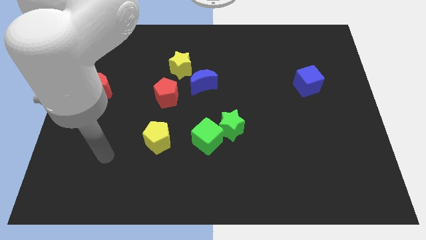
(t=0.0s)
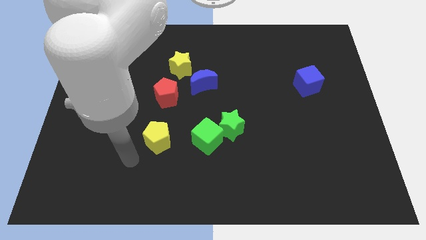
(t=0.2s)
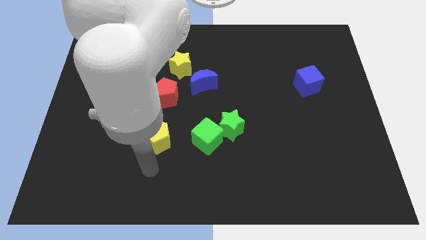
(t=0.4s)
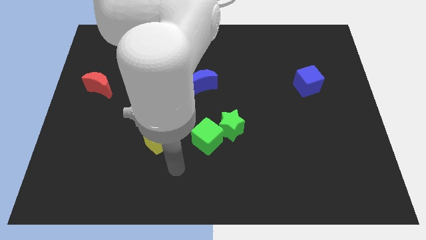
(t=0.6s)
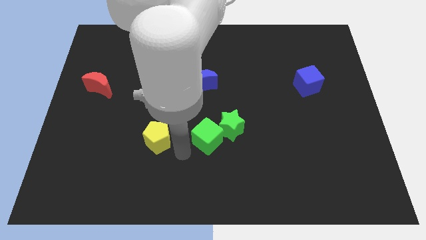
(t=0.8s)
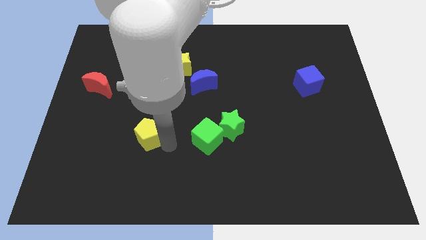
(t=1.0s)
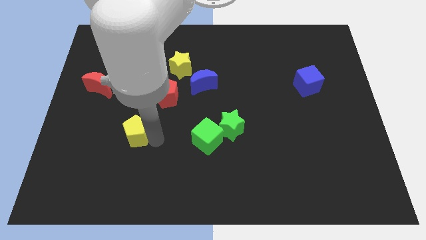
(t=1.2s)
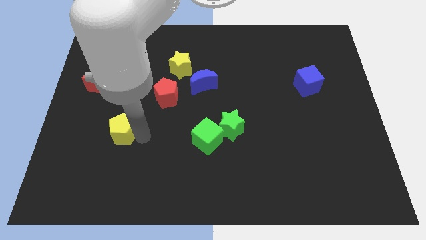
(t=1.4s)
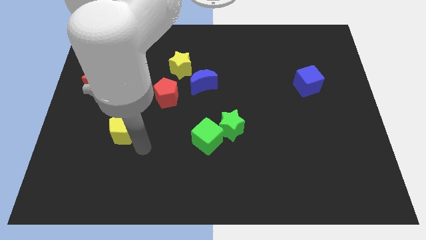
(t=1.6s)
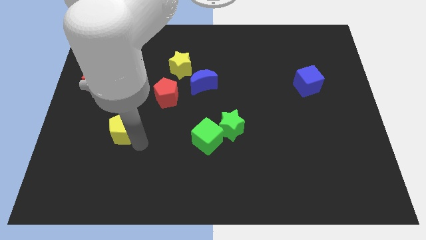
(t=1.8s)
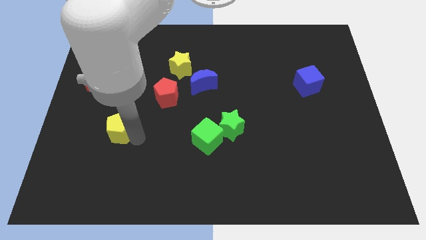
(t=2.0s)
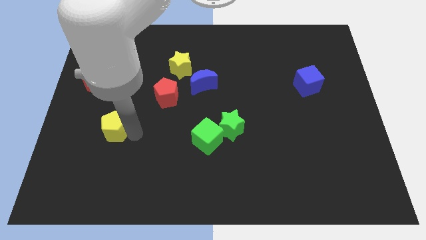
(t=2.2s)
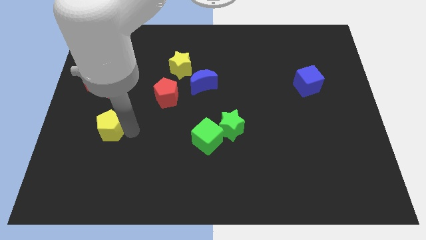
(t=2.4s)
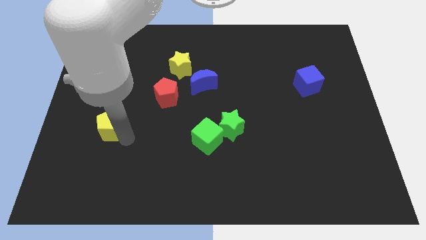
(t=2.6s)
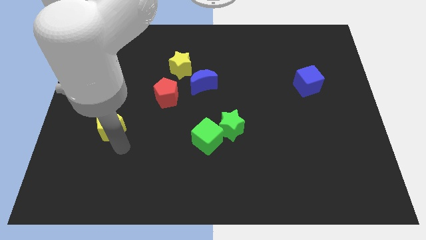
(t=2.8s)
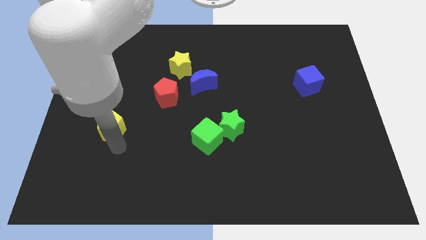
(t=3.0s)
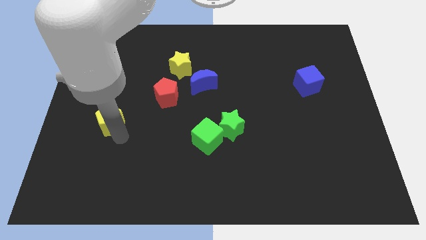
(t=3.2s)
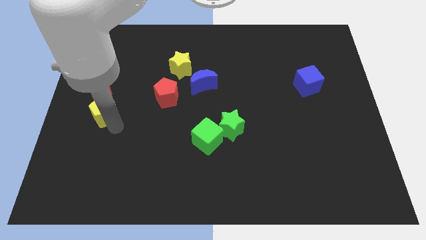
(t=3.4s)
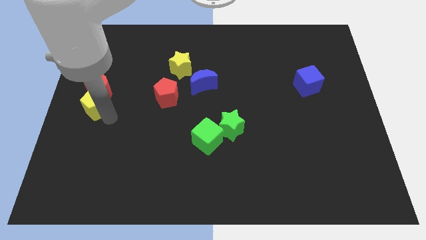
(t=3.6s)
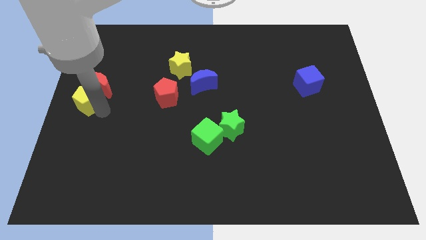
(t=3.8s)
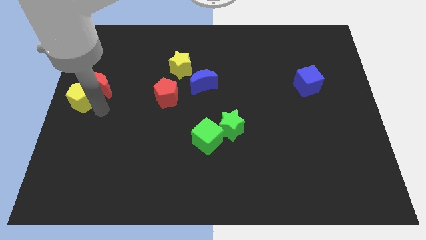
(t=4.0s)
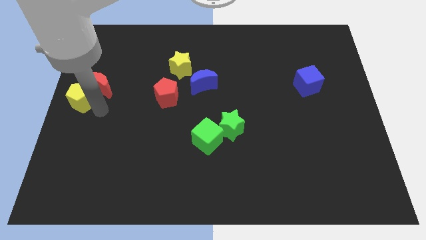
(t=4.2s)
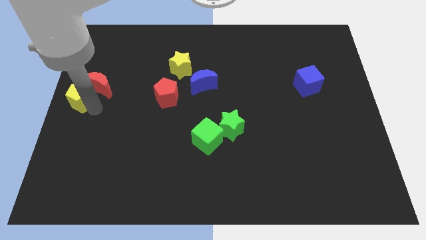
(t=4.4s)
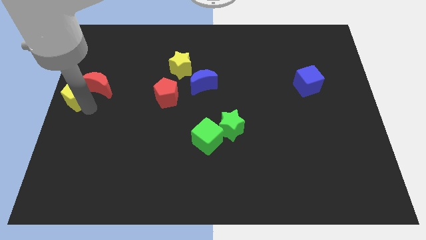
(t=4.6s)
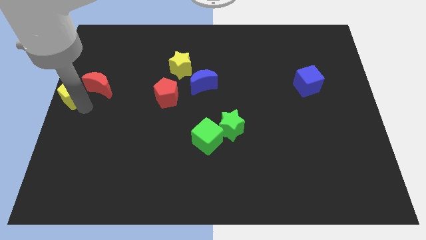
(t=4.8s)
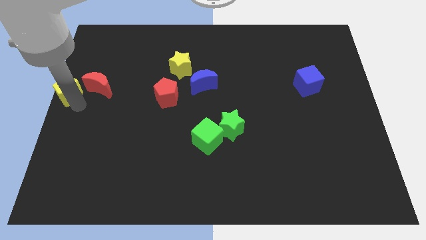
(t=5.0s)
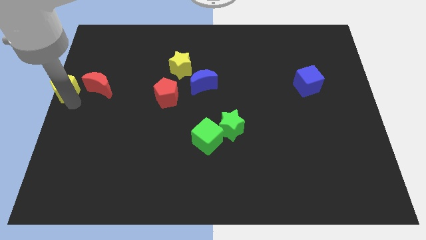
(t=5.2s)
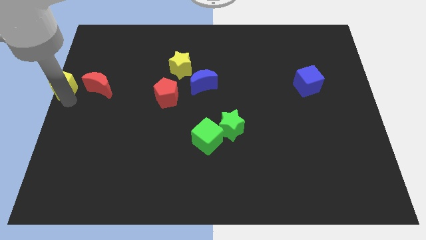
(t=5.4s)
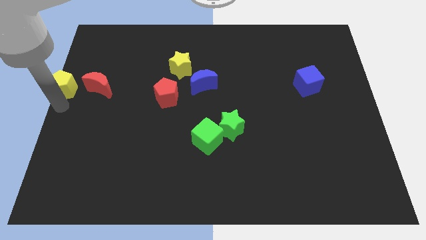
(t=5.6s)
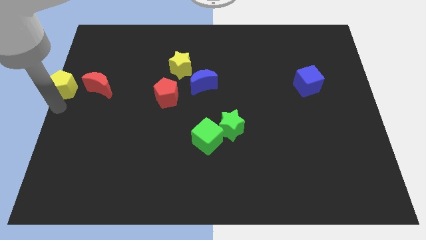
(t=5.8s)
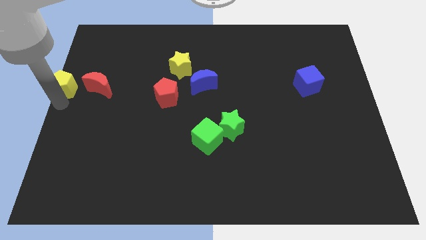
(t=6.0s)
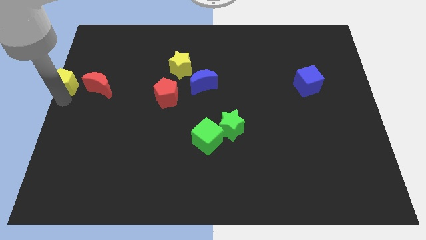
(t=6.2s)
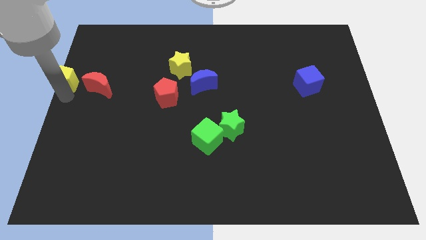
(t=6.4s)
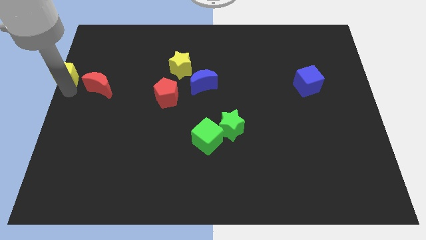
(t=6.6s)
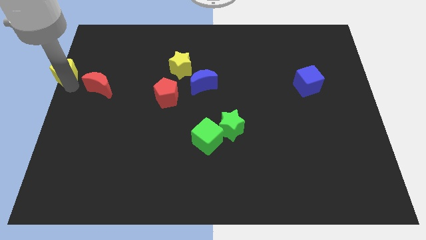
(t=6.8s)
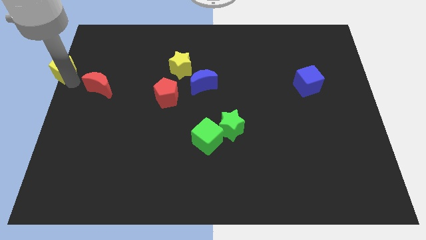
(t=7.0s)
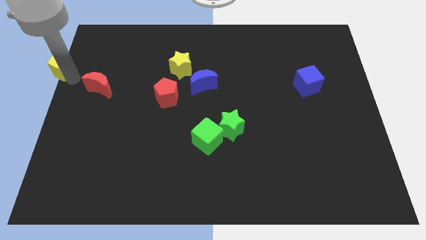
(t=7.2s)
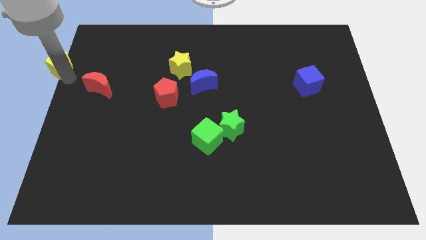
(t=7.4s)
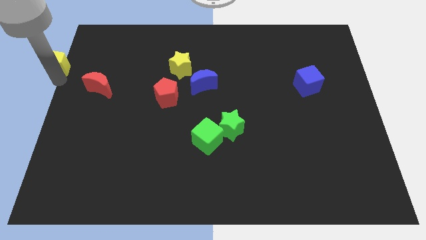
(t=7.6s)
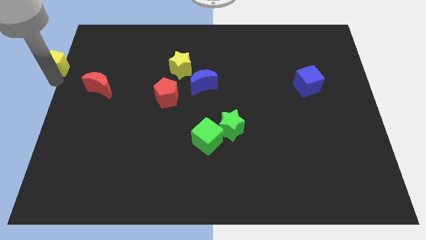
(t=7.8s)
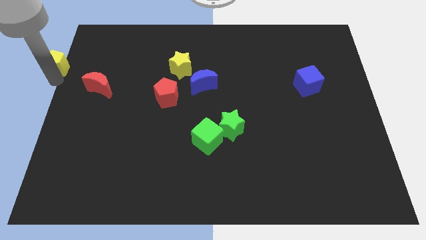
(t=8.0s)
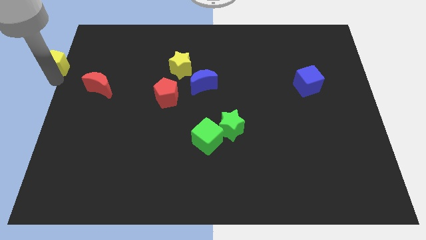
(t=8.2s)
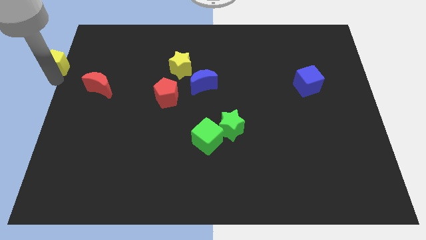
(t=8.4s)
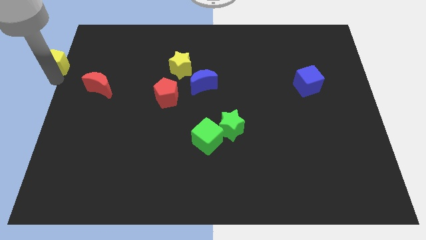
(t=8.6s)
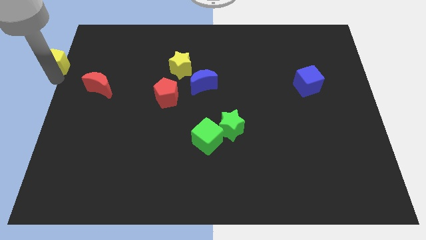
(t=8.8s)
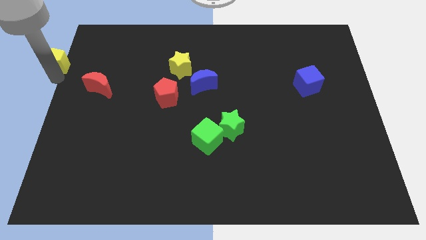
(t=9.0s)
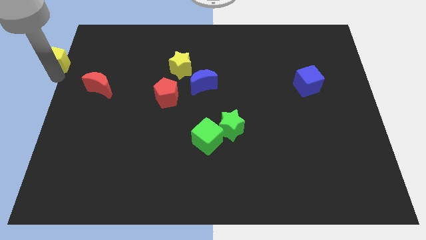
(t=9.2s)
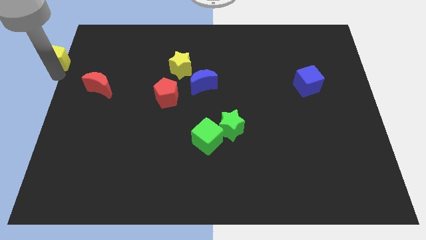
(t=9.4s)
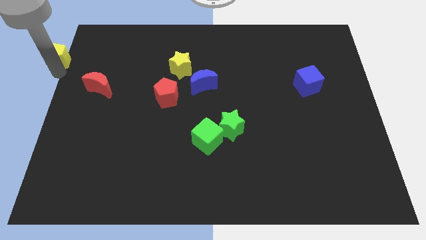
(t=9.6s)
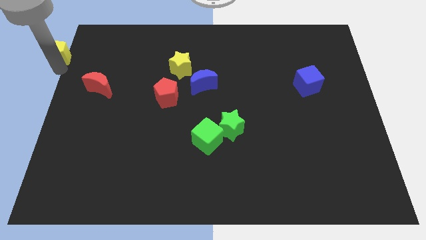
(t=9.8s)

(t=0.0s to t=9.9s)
push the yellow pentagon to the top left corner

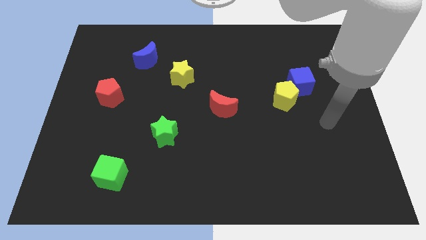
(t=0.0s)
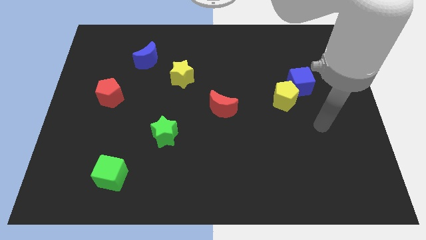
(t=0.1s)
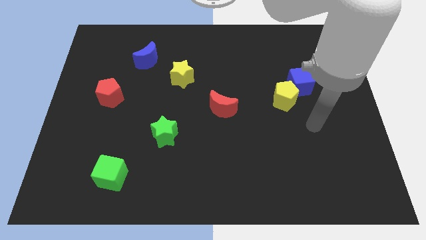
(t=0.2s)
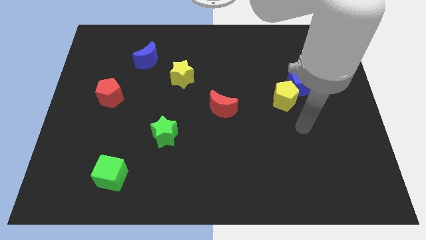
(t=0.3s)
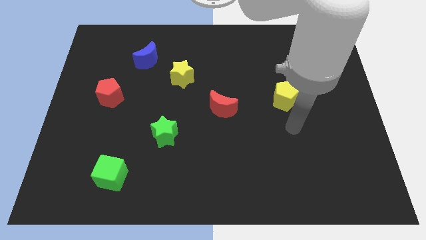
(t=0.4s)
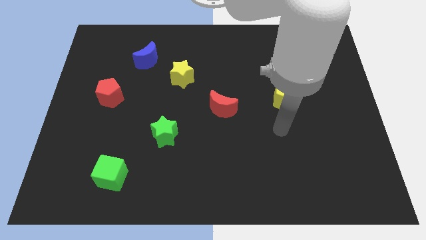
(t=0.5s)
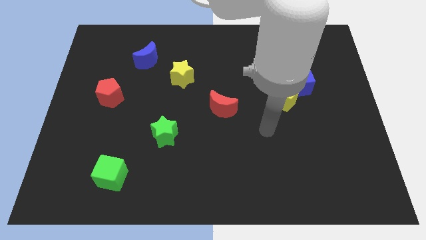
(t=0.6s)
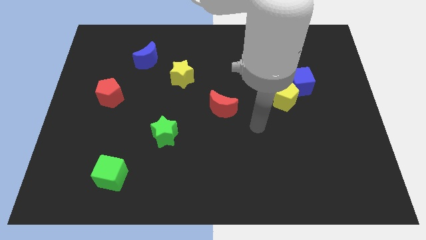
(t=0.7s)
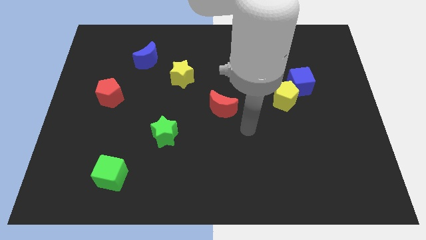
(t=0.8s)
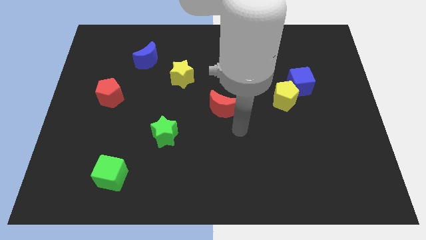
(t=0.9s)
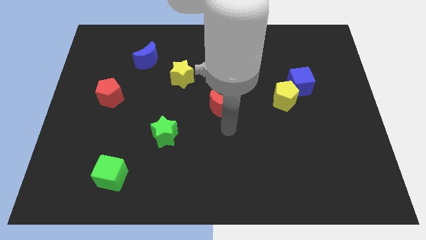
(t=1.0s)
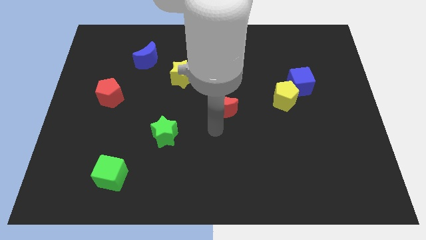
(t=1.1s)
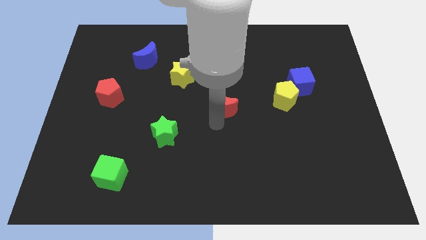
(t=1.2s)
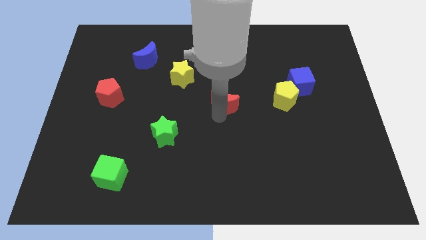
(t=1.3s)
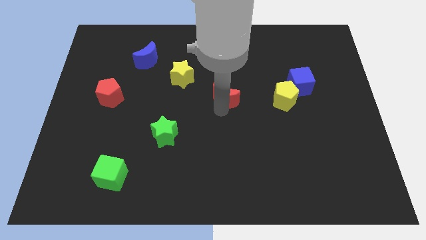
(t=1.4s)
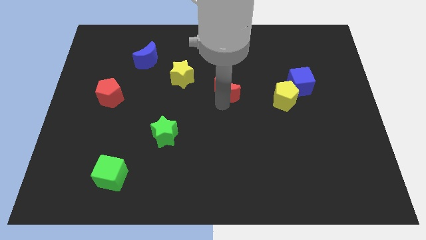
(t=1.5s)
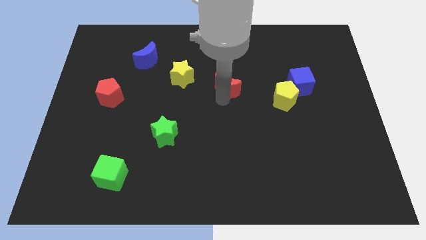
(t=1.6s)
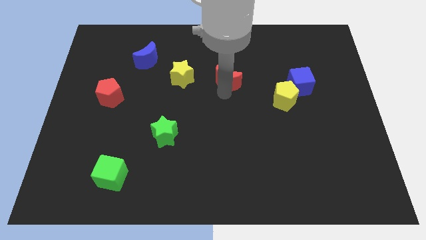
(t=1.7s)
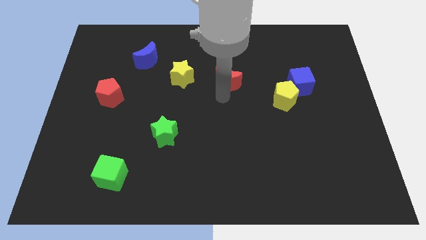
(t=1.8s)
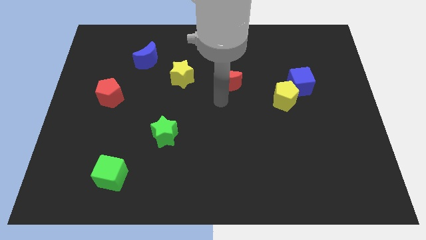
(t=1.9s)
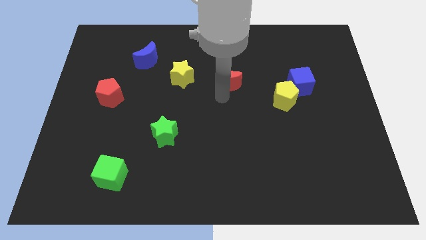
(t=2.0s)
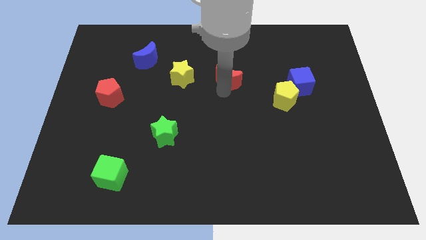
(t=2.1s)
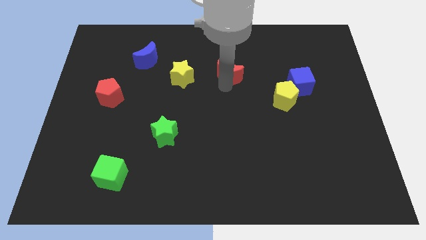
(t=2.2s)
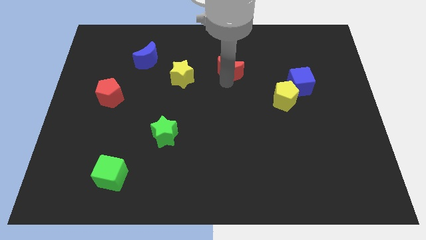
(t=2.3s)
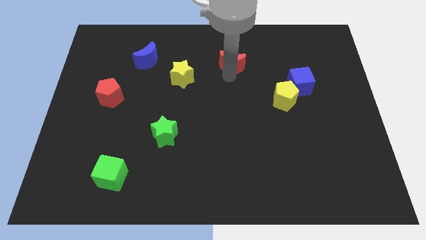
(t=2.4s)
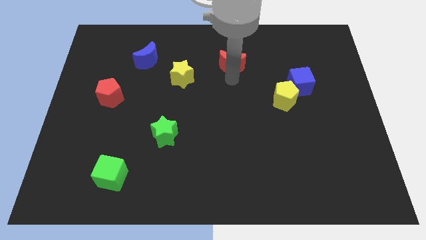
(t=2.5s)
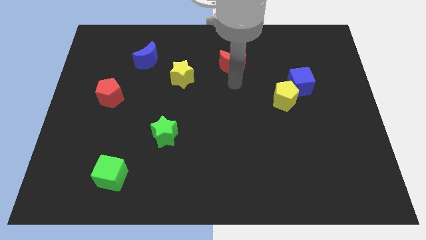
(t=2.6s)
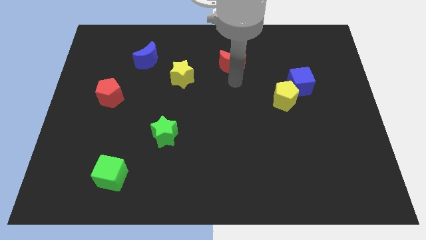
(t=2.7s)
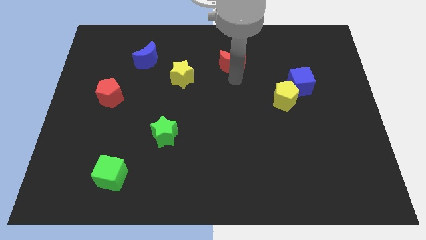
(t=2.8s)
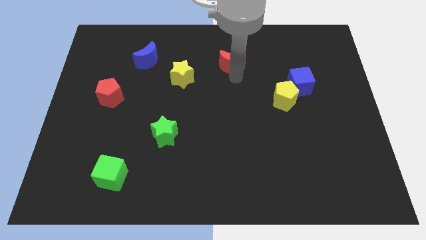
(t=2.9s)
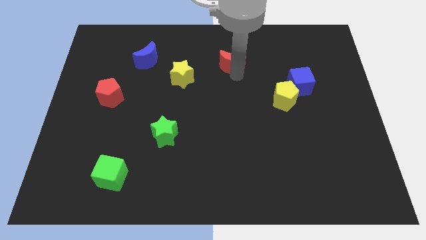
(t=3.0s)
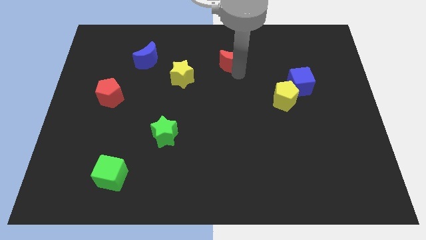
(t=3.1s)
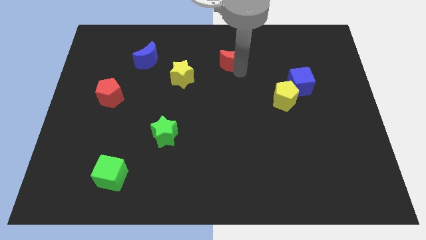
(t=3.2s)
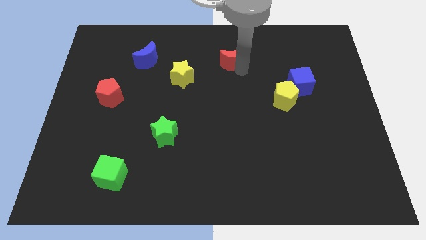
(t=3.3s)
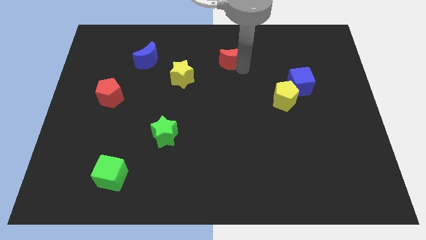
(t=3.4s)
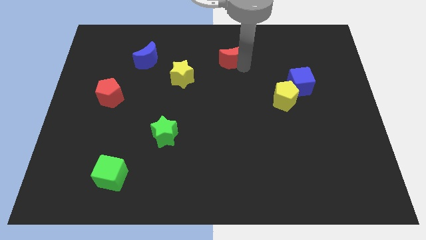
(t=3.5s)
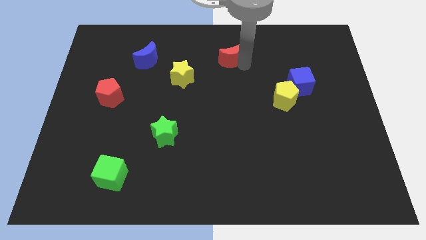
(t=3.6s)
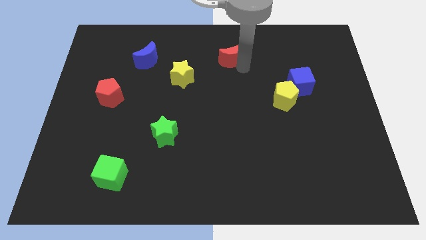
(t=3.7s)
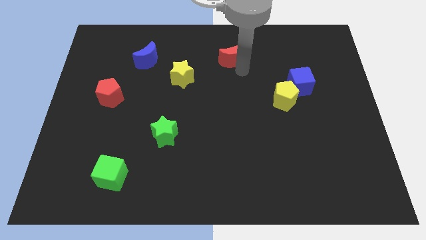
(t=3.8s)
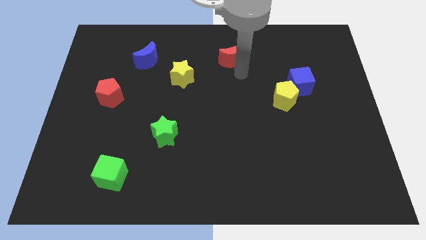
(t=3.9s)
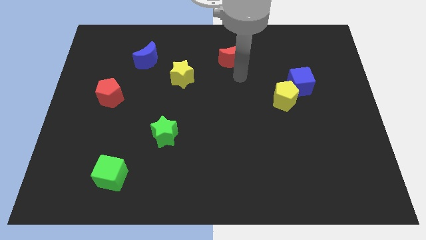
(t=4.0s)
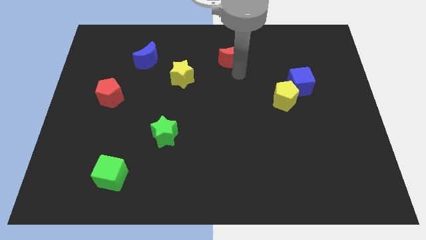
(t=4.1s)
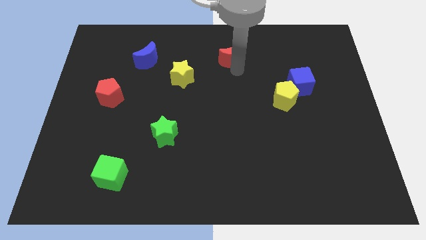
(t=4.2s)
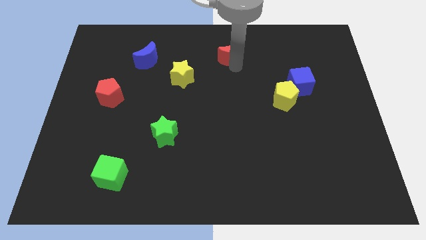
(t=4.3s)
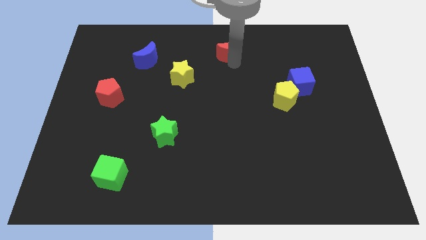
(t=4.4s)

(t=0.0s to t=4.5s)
move the red moon to the top
